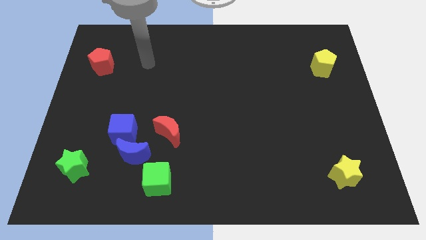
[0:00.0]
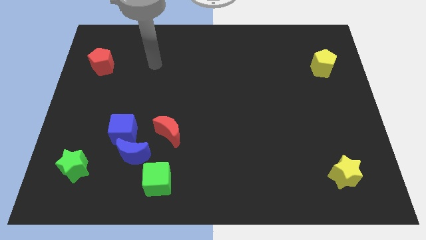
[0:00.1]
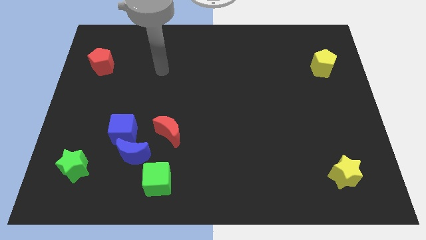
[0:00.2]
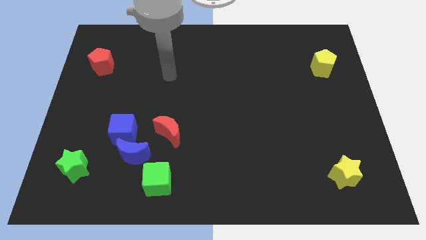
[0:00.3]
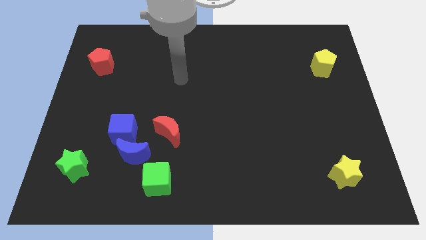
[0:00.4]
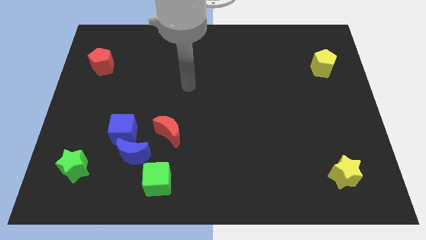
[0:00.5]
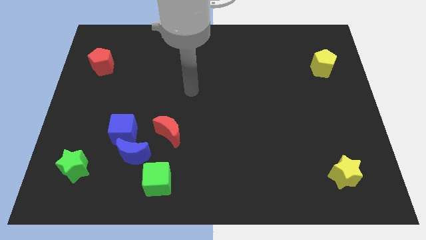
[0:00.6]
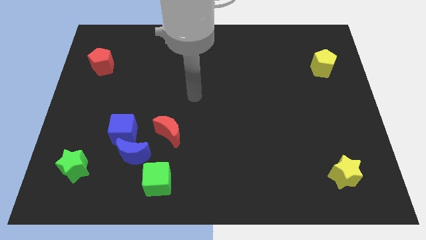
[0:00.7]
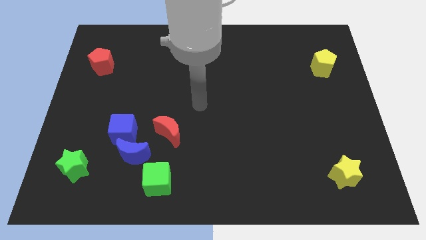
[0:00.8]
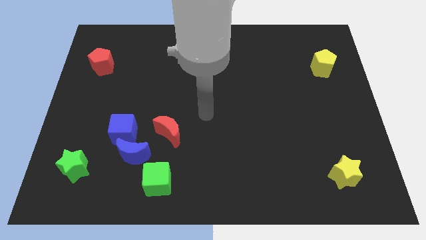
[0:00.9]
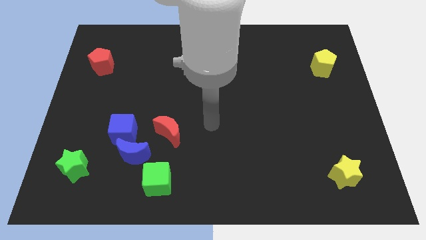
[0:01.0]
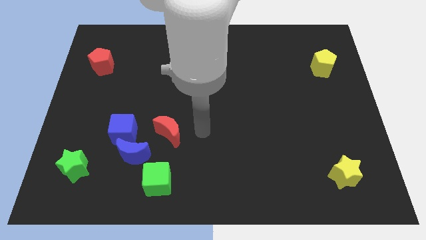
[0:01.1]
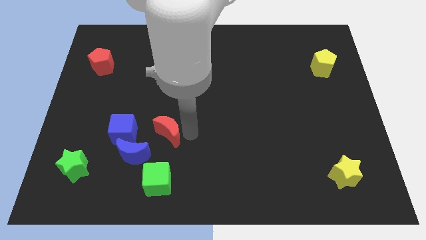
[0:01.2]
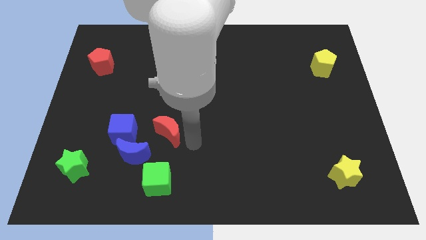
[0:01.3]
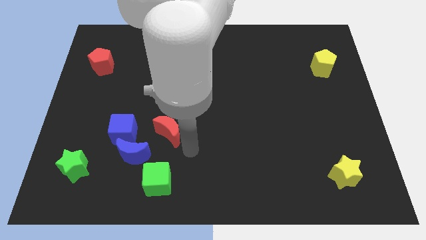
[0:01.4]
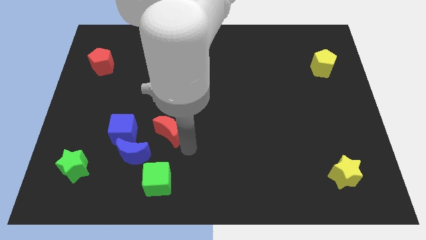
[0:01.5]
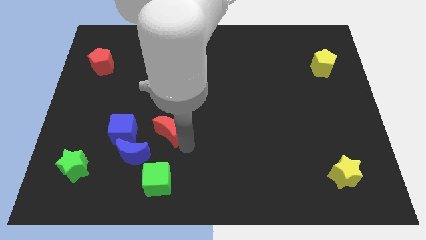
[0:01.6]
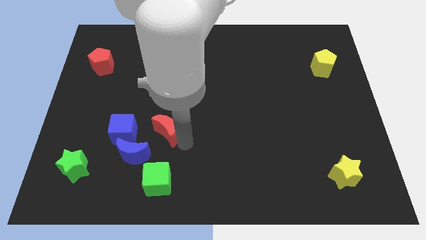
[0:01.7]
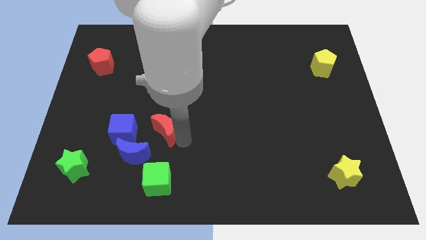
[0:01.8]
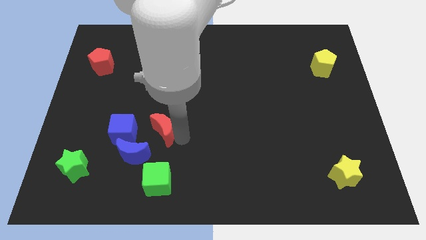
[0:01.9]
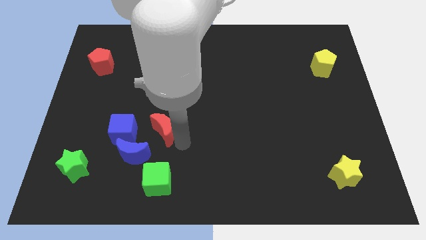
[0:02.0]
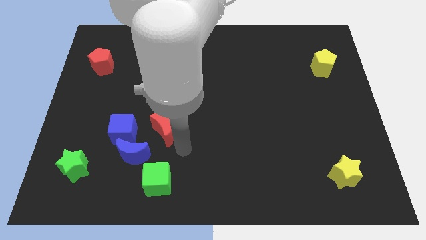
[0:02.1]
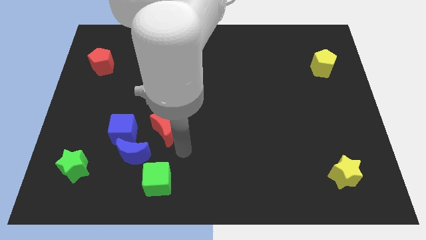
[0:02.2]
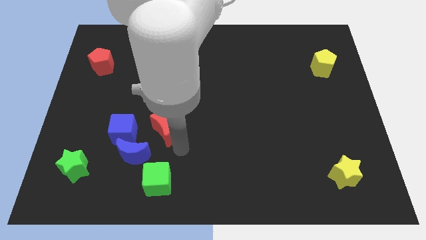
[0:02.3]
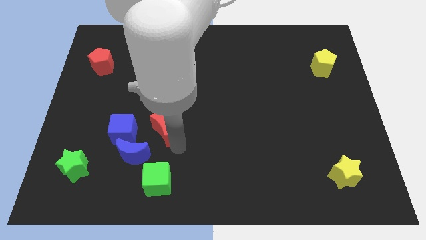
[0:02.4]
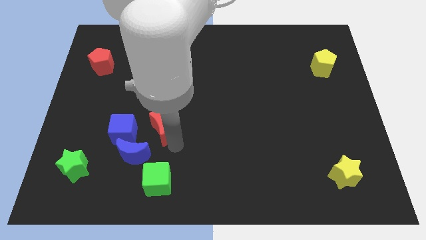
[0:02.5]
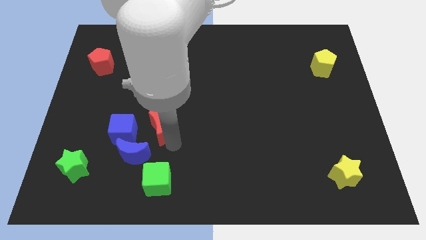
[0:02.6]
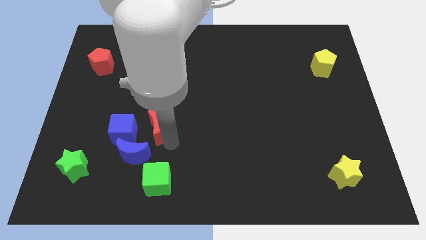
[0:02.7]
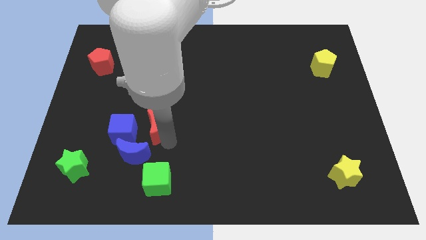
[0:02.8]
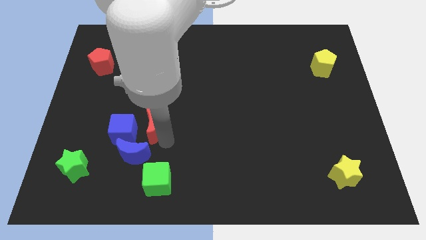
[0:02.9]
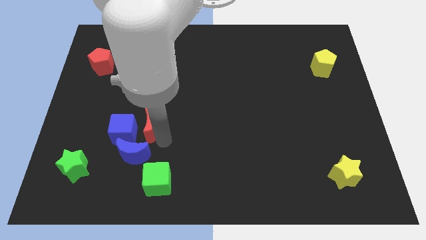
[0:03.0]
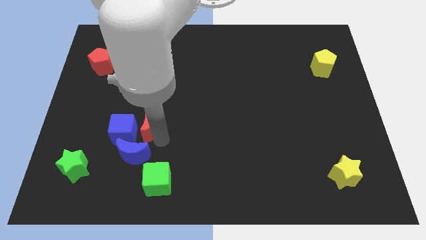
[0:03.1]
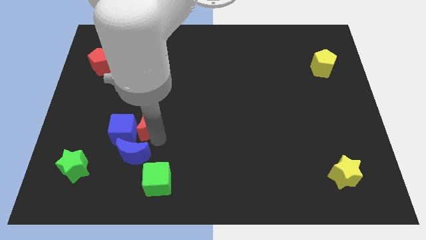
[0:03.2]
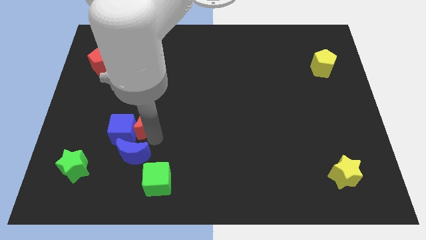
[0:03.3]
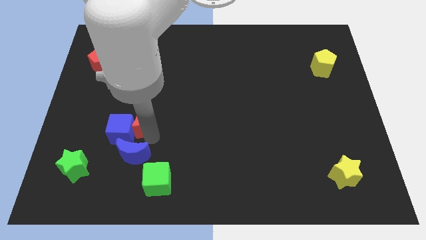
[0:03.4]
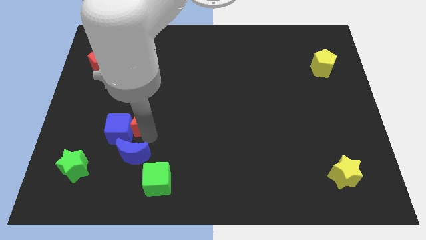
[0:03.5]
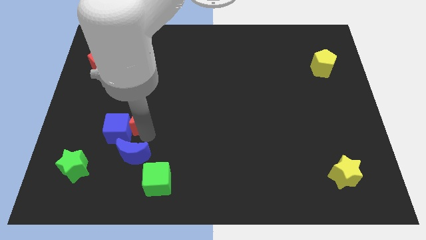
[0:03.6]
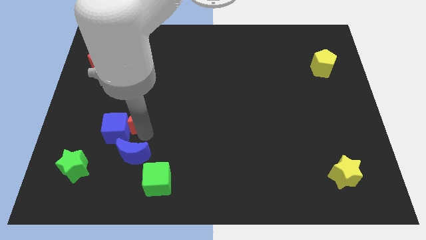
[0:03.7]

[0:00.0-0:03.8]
move the red moon a little bit to the left

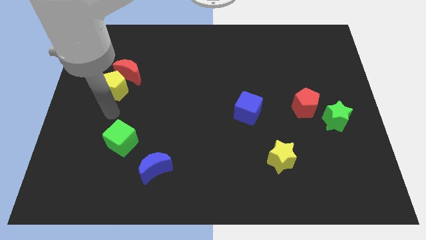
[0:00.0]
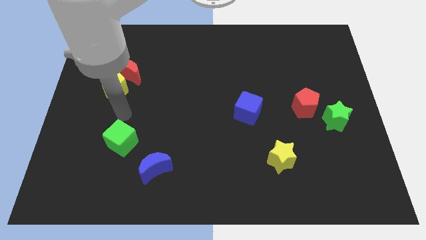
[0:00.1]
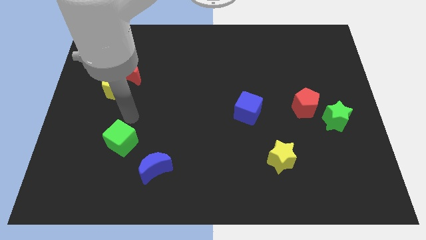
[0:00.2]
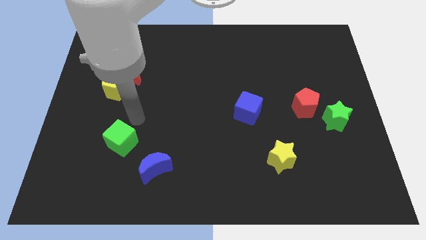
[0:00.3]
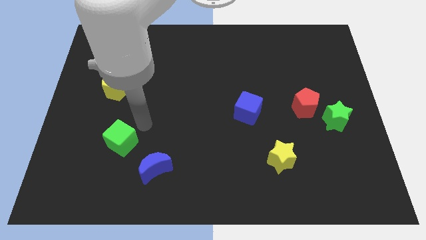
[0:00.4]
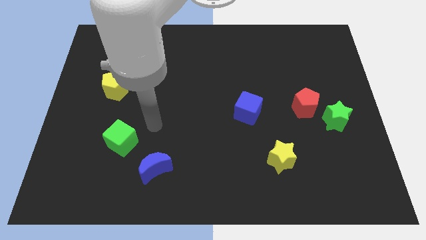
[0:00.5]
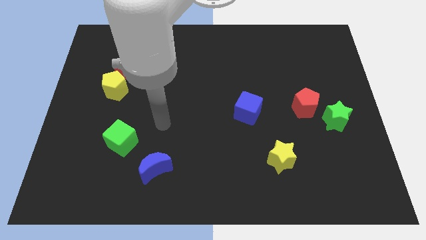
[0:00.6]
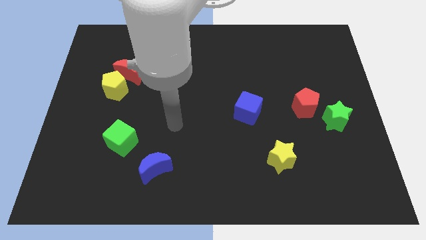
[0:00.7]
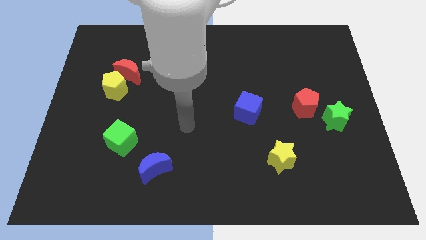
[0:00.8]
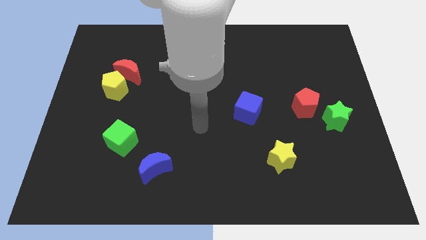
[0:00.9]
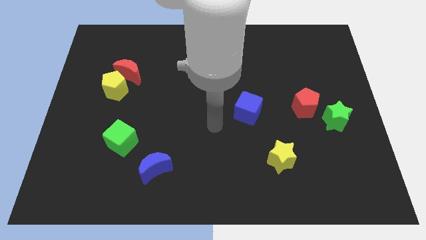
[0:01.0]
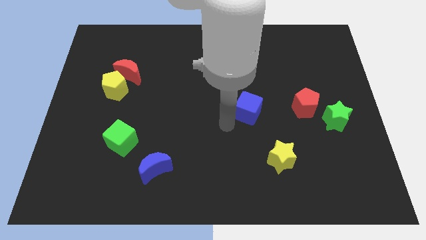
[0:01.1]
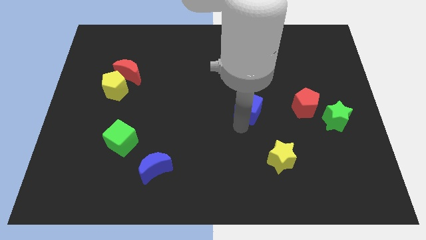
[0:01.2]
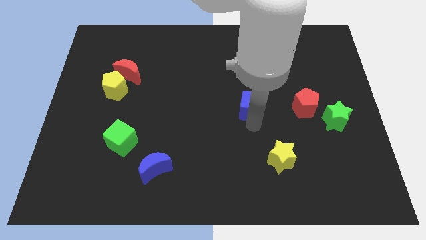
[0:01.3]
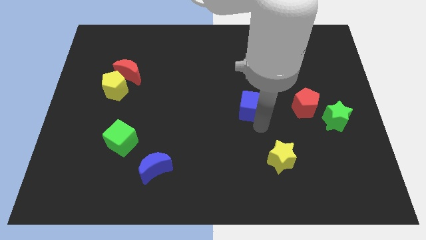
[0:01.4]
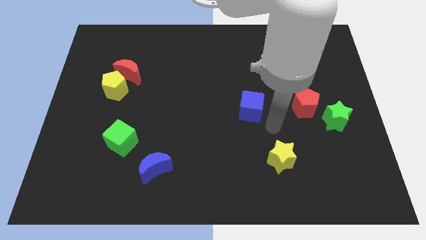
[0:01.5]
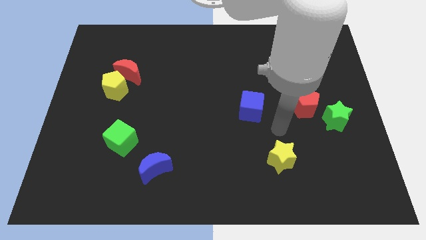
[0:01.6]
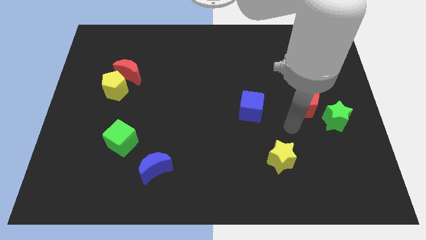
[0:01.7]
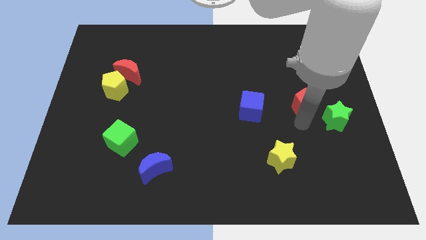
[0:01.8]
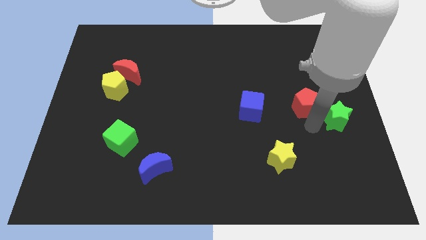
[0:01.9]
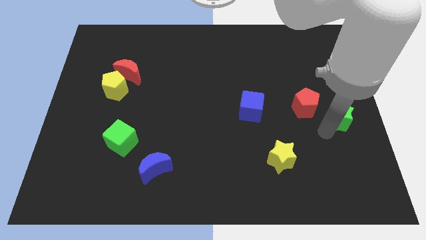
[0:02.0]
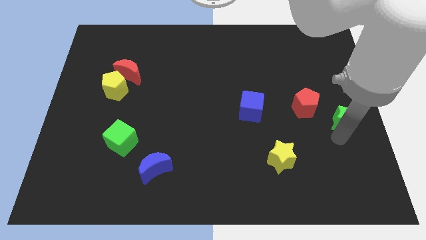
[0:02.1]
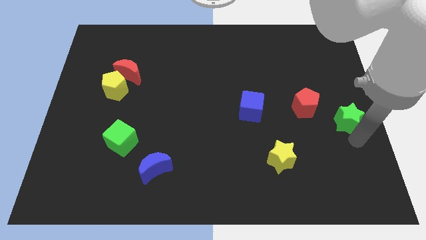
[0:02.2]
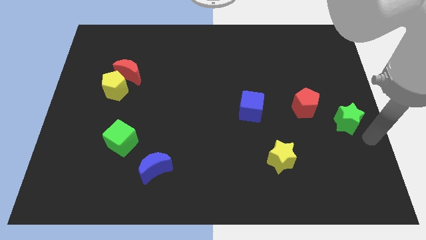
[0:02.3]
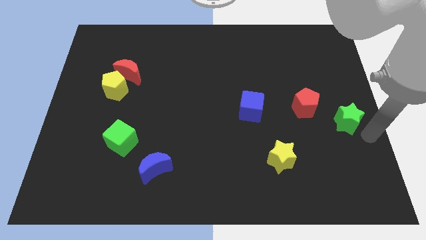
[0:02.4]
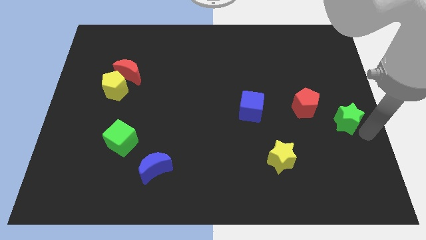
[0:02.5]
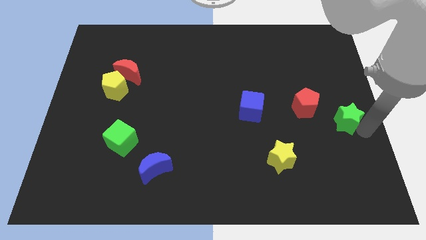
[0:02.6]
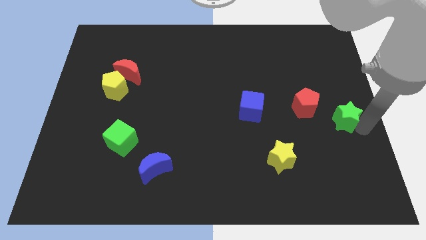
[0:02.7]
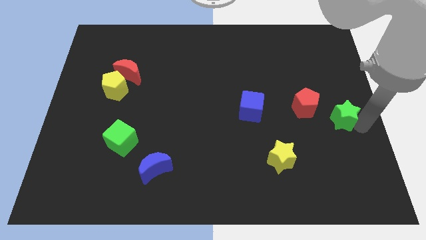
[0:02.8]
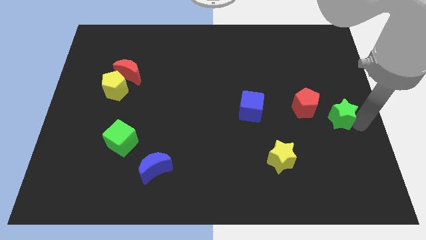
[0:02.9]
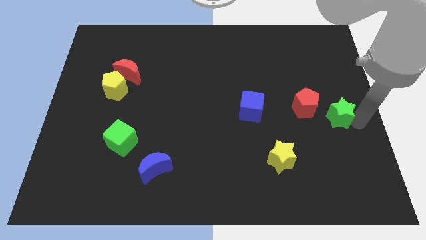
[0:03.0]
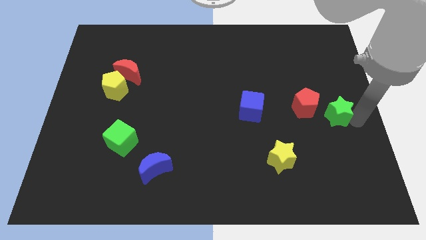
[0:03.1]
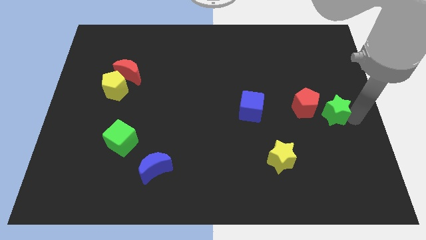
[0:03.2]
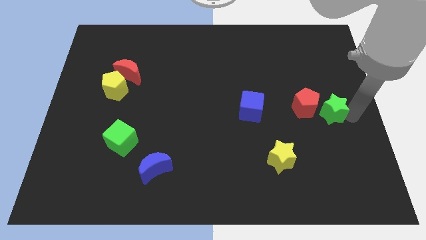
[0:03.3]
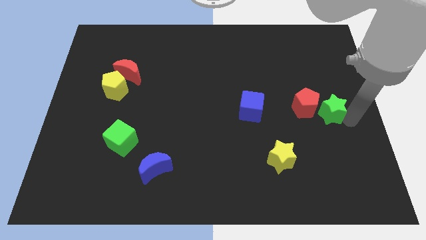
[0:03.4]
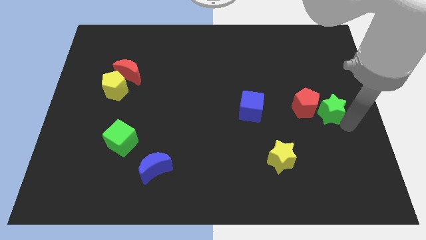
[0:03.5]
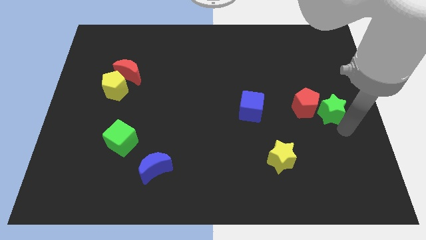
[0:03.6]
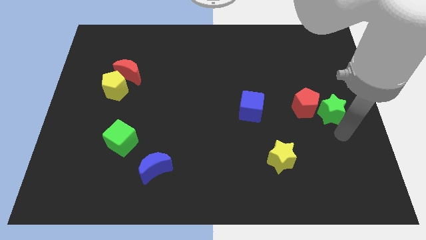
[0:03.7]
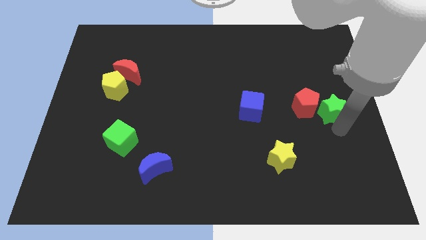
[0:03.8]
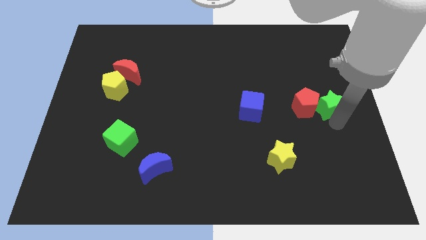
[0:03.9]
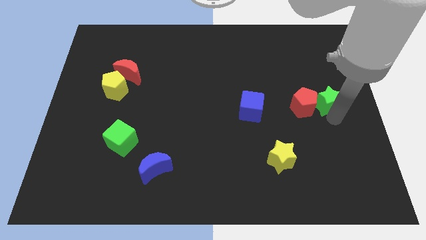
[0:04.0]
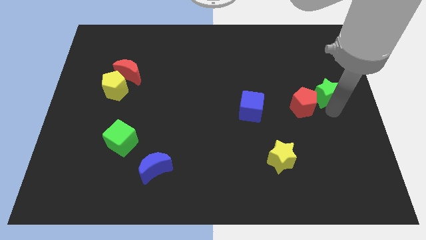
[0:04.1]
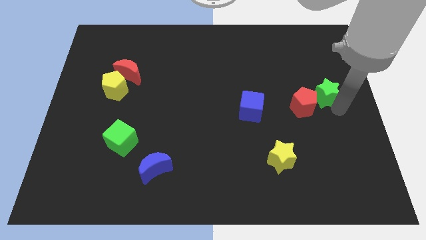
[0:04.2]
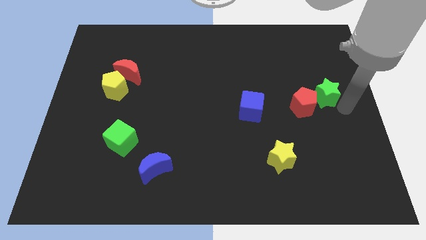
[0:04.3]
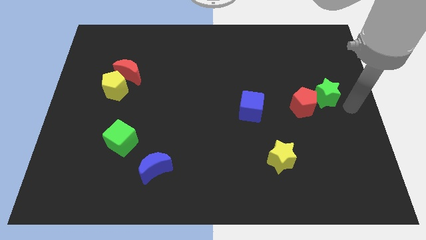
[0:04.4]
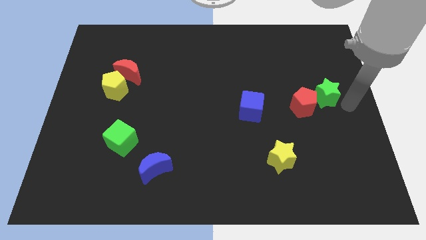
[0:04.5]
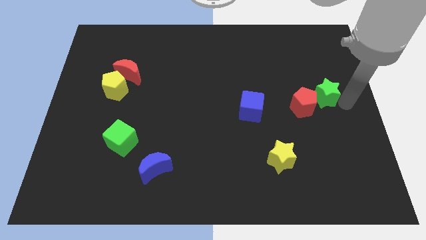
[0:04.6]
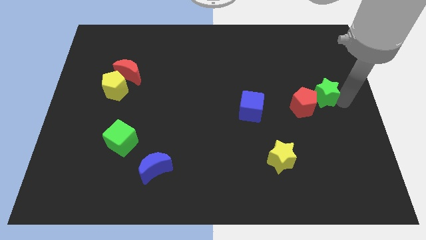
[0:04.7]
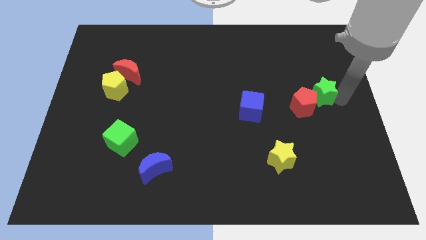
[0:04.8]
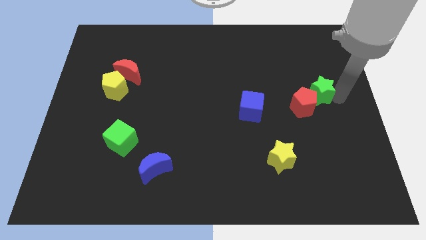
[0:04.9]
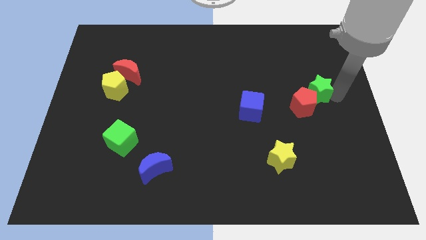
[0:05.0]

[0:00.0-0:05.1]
push the green star somewhat up and to the left diagonally
